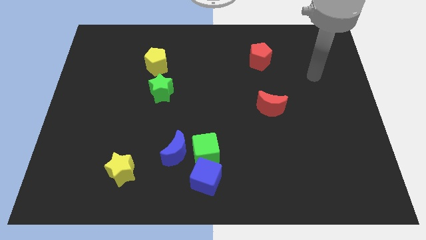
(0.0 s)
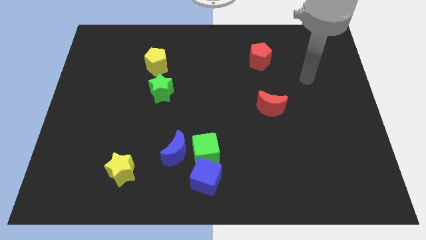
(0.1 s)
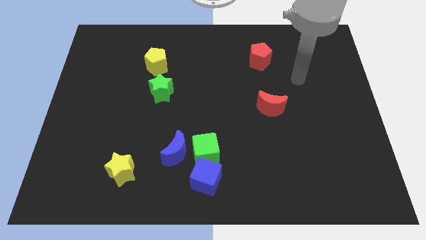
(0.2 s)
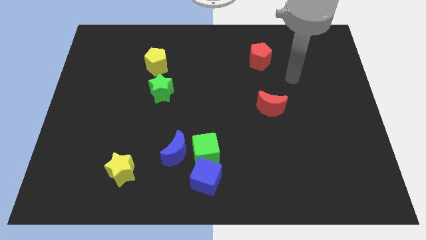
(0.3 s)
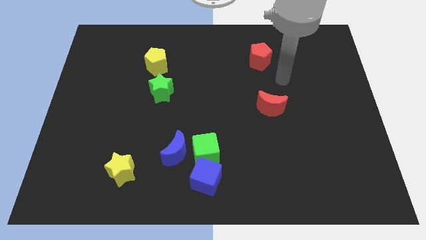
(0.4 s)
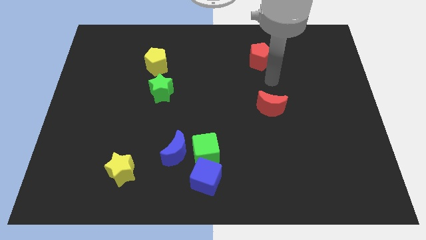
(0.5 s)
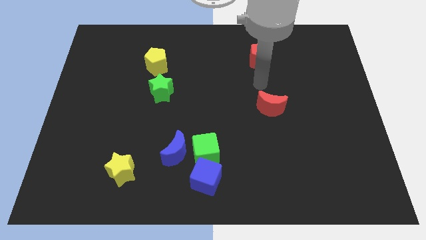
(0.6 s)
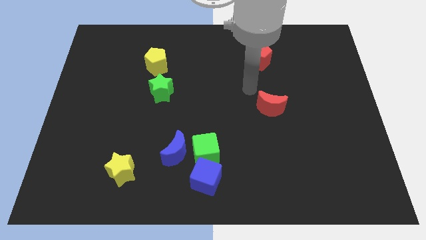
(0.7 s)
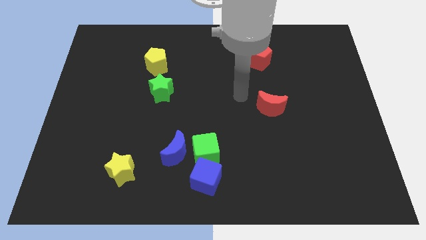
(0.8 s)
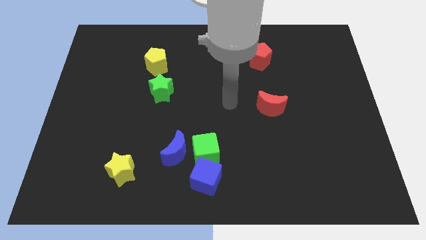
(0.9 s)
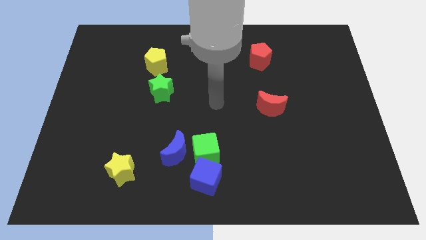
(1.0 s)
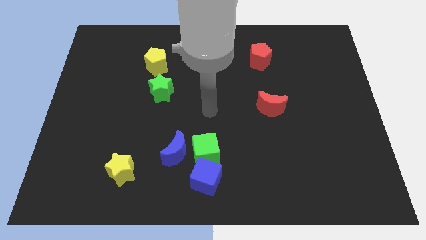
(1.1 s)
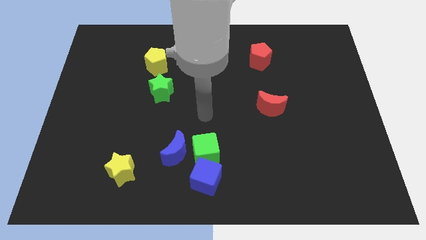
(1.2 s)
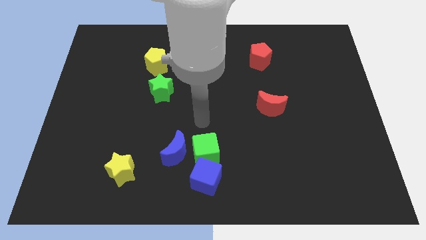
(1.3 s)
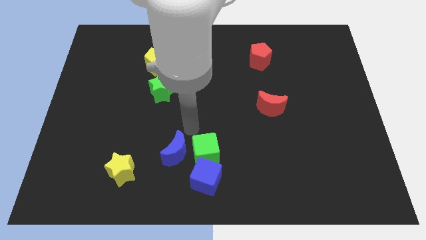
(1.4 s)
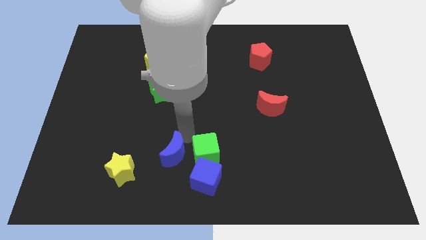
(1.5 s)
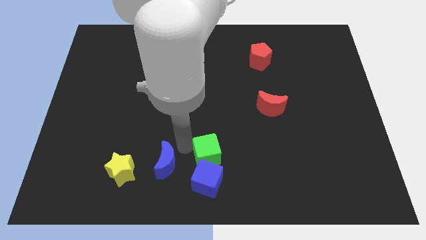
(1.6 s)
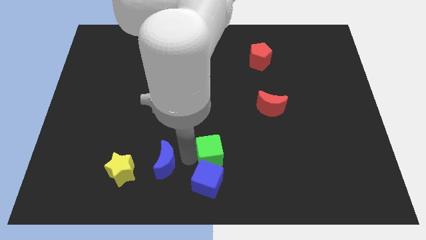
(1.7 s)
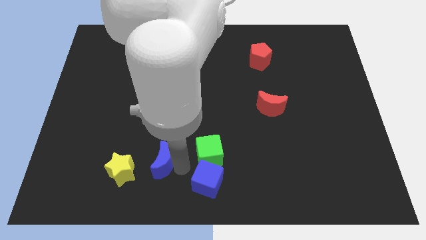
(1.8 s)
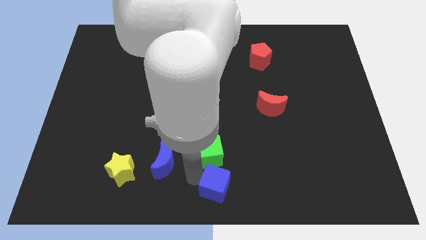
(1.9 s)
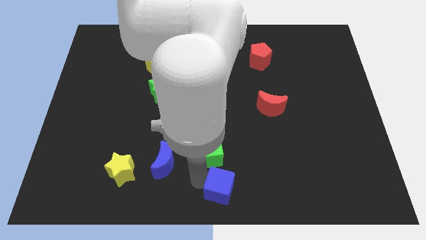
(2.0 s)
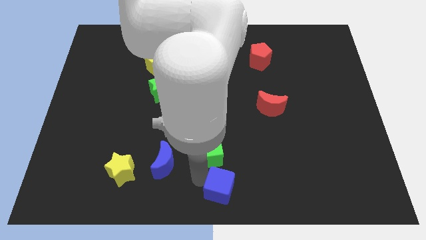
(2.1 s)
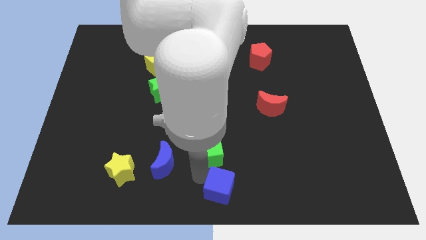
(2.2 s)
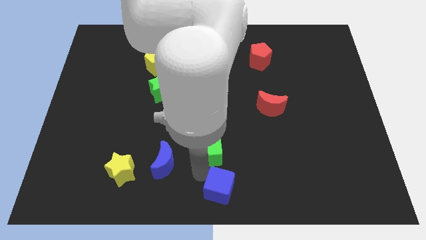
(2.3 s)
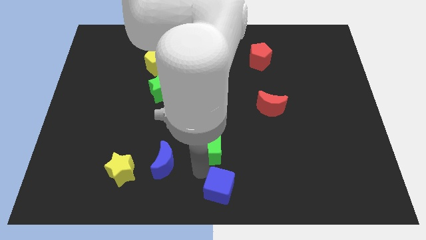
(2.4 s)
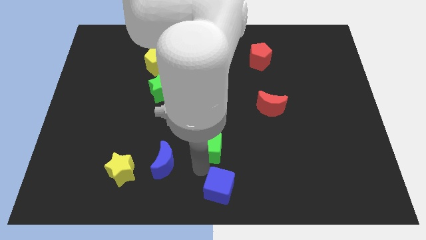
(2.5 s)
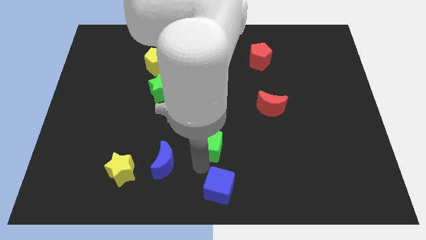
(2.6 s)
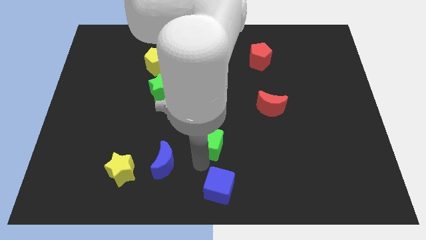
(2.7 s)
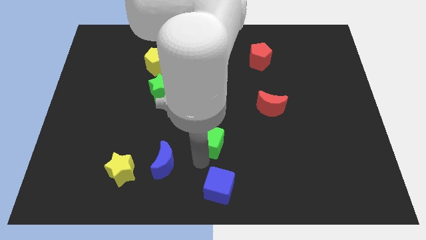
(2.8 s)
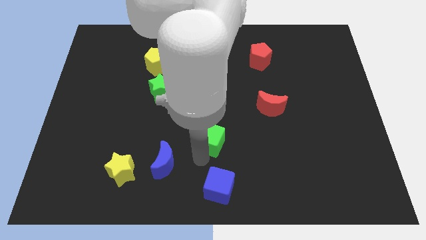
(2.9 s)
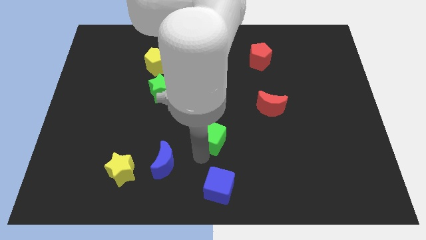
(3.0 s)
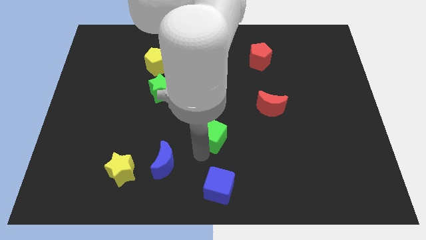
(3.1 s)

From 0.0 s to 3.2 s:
separate the green cube from the blue cube and blue moon

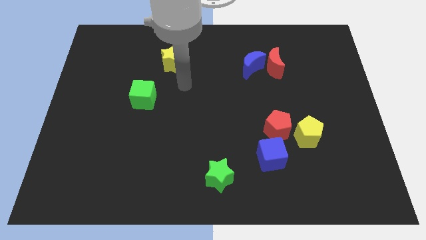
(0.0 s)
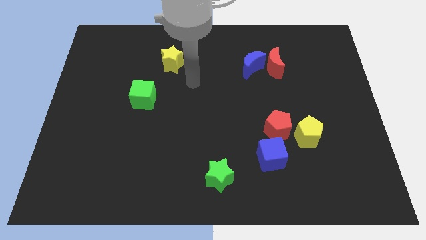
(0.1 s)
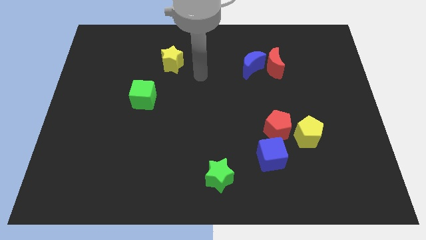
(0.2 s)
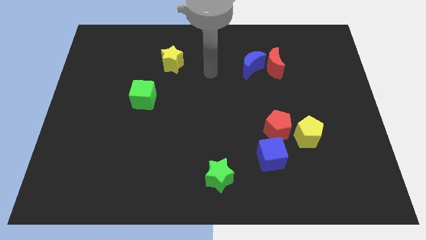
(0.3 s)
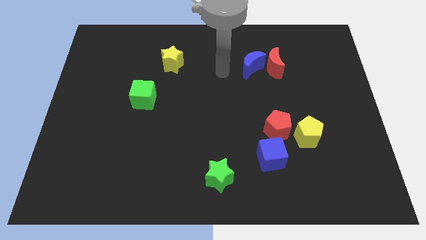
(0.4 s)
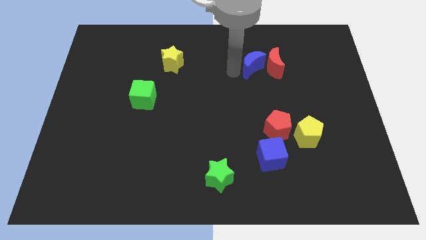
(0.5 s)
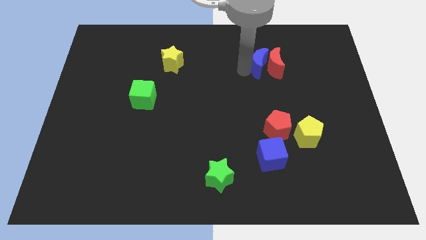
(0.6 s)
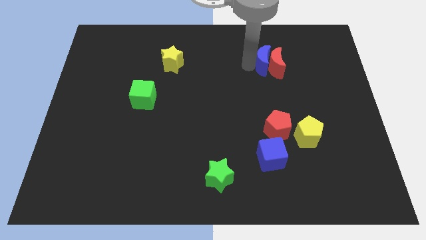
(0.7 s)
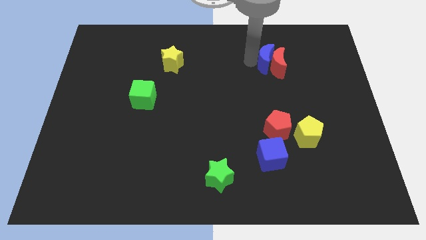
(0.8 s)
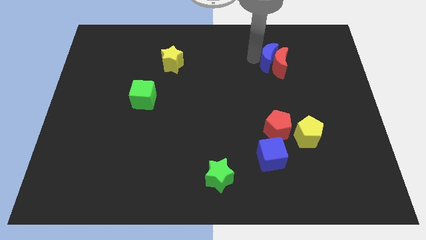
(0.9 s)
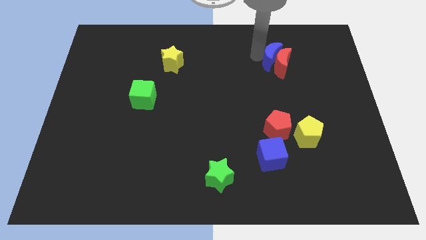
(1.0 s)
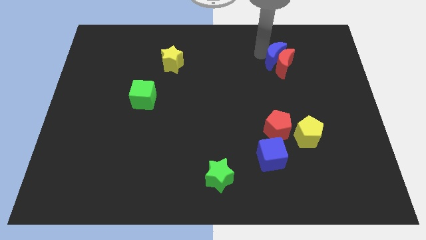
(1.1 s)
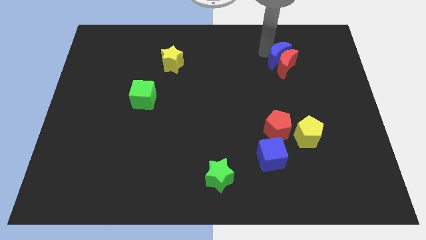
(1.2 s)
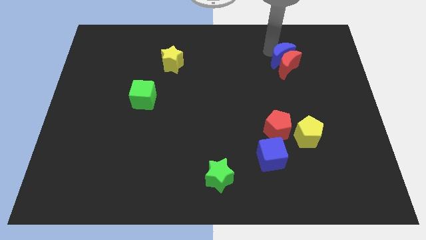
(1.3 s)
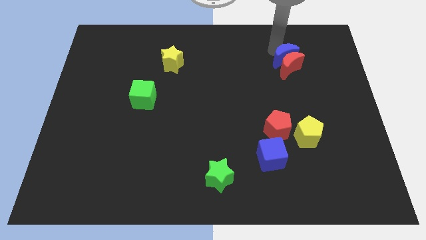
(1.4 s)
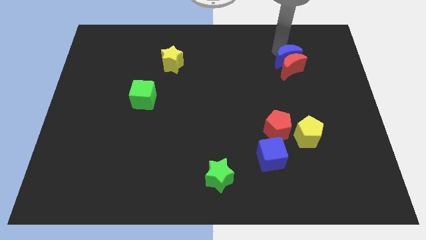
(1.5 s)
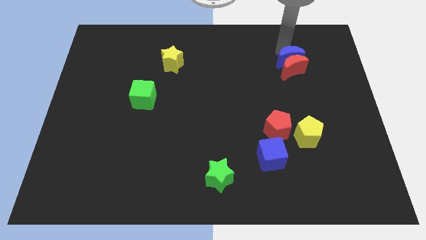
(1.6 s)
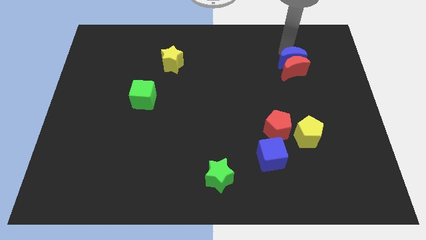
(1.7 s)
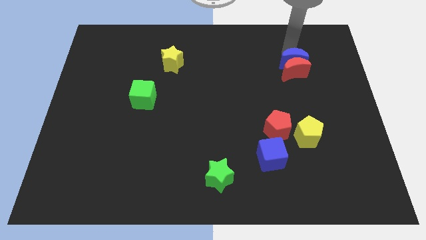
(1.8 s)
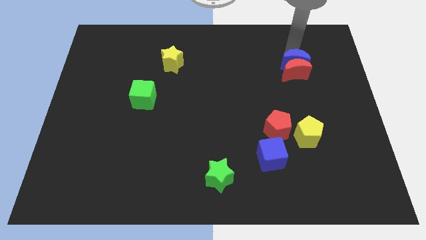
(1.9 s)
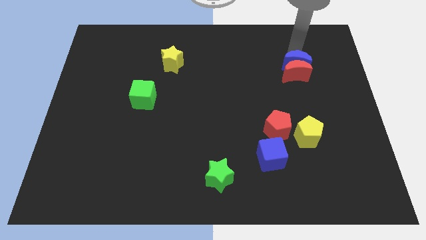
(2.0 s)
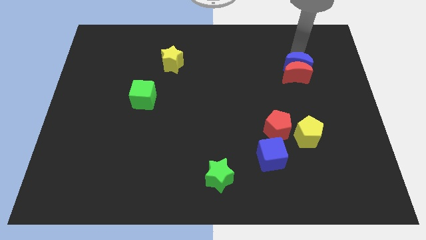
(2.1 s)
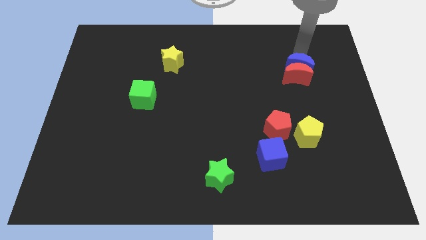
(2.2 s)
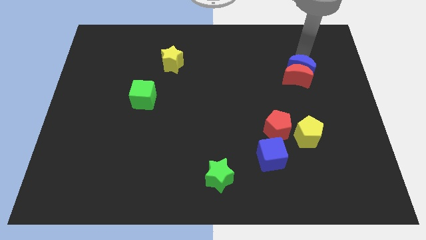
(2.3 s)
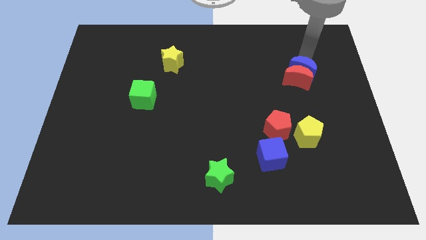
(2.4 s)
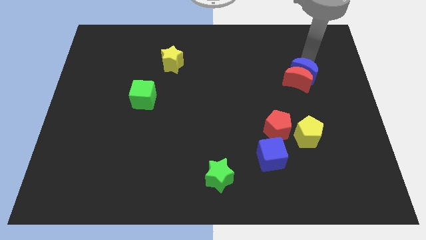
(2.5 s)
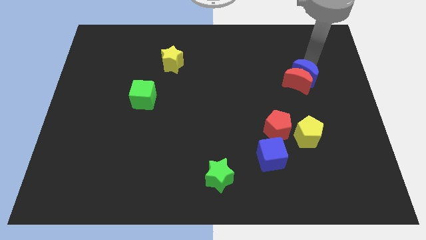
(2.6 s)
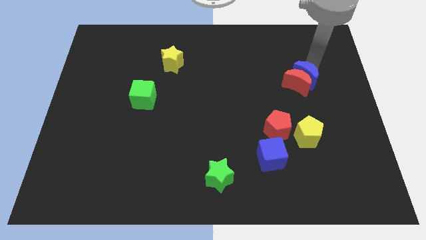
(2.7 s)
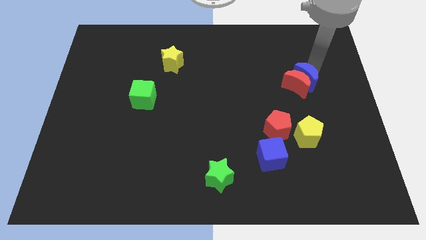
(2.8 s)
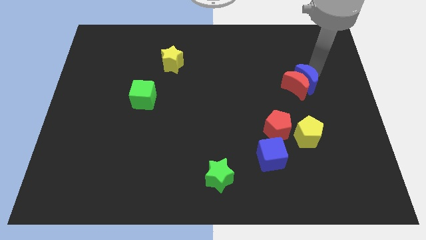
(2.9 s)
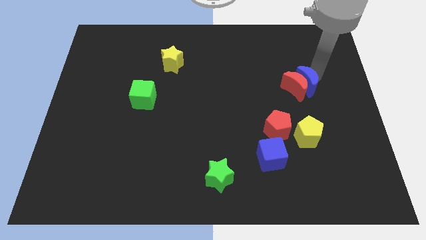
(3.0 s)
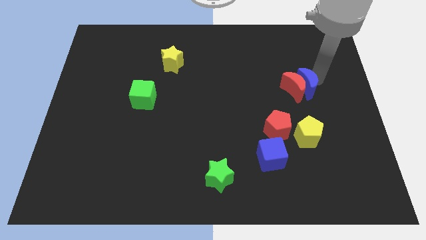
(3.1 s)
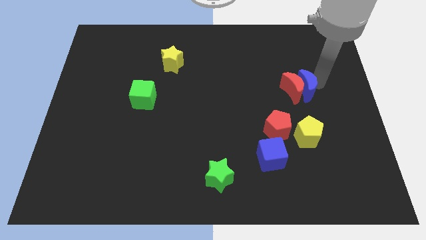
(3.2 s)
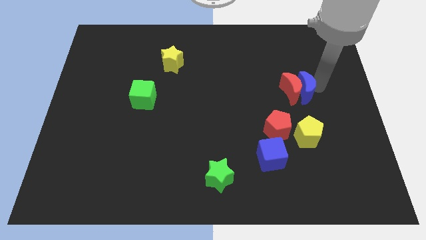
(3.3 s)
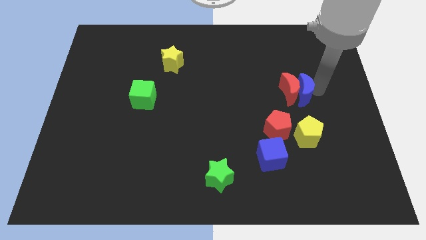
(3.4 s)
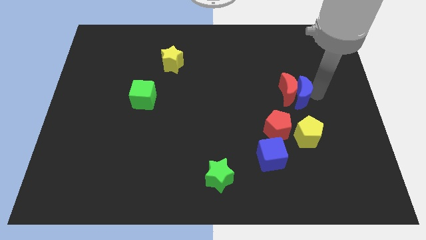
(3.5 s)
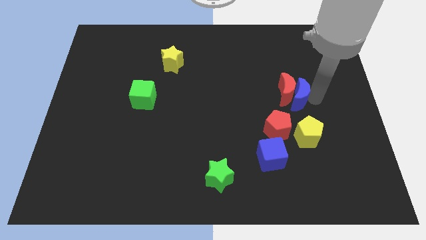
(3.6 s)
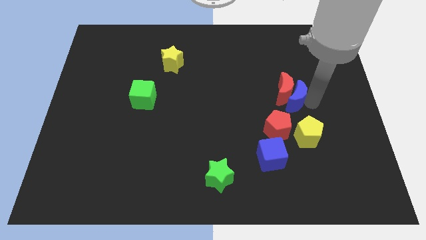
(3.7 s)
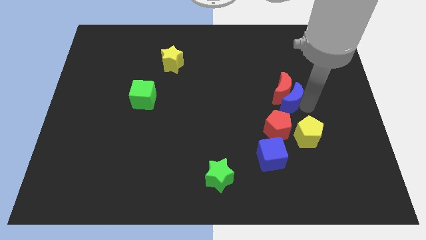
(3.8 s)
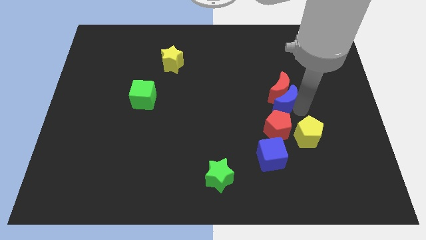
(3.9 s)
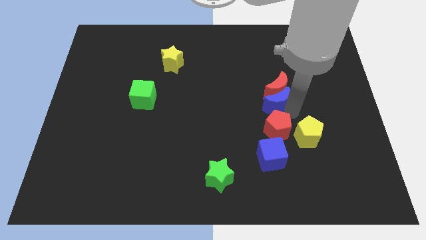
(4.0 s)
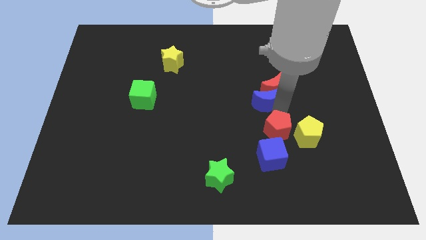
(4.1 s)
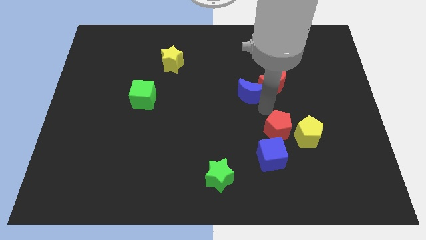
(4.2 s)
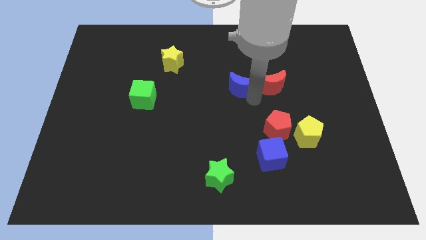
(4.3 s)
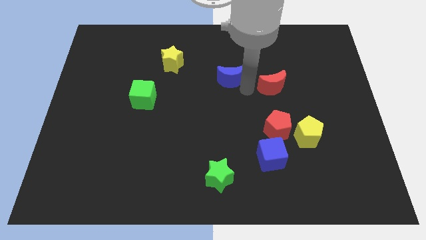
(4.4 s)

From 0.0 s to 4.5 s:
separate the red moon from the blue moon

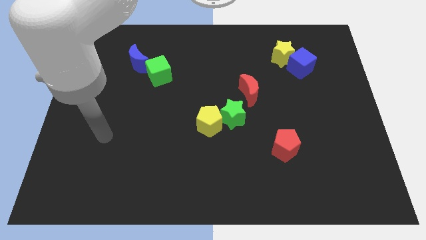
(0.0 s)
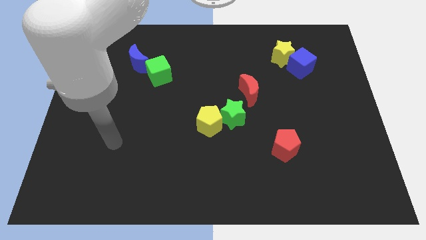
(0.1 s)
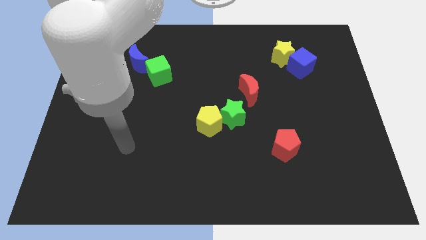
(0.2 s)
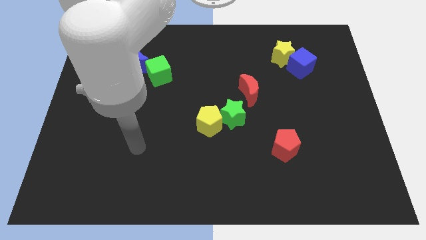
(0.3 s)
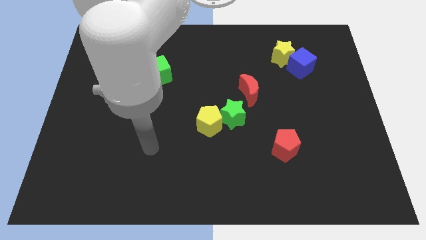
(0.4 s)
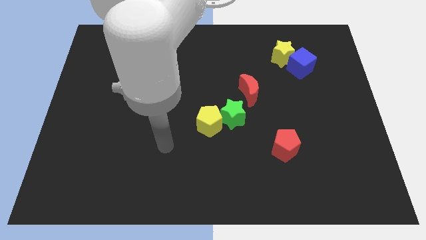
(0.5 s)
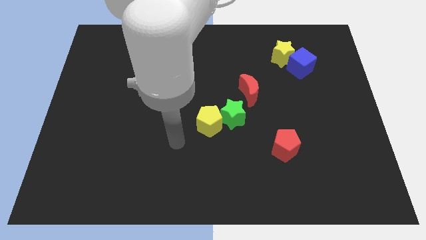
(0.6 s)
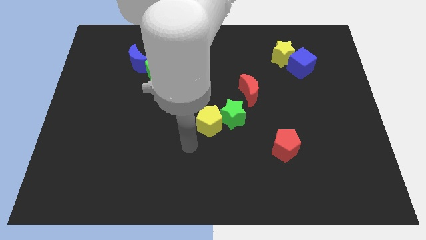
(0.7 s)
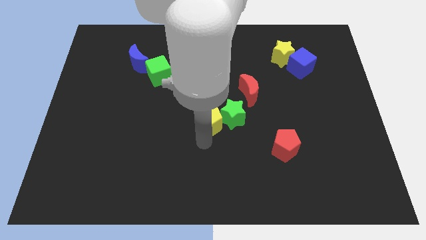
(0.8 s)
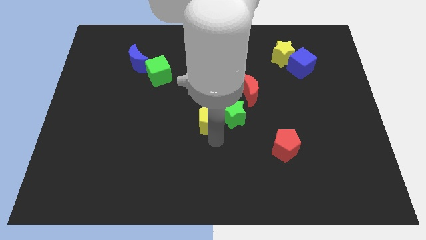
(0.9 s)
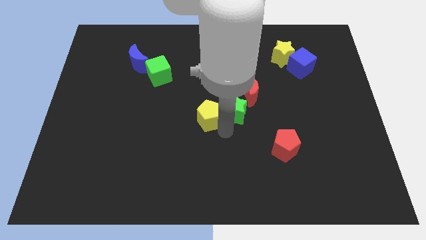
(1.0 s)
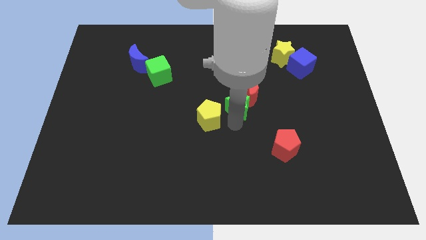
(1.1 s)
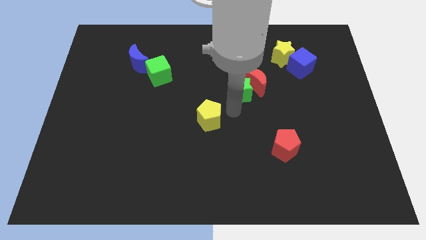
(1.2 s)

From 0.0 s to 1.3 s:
pull the yellow pentagon apart from the green star

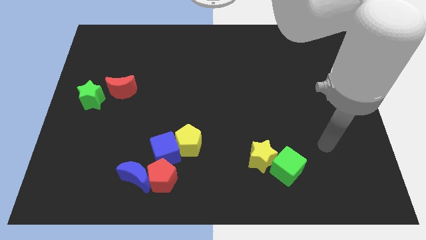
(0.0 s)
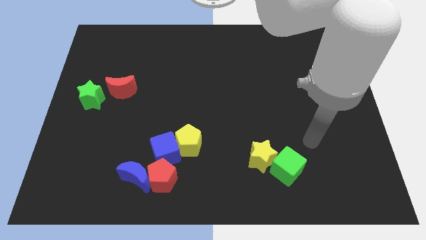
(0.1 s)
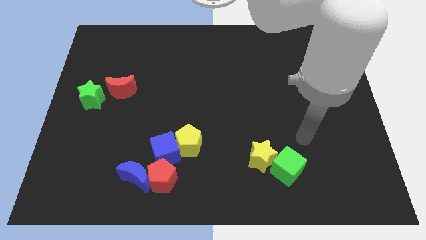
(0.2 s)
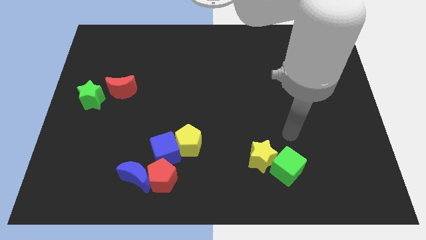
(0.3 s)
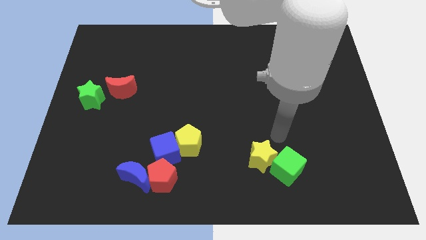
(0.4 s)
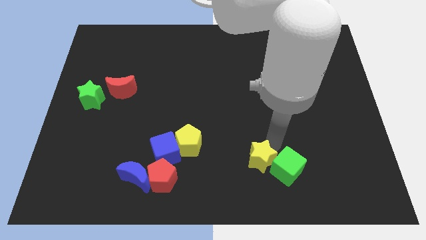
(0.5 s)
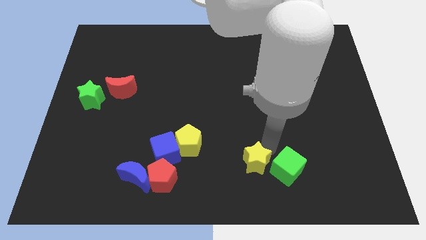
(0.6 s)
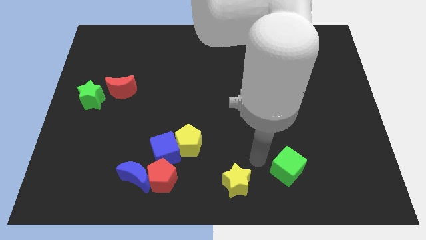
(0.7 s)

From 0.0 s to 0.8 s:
separate the green cube from the yellow star
